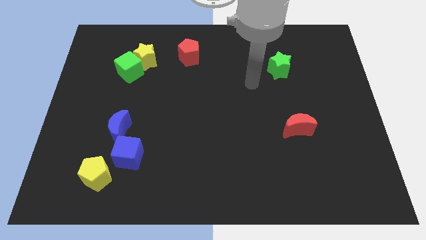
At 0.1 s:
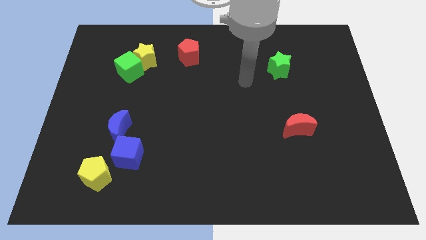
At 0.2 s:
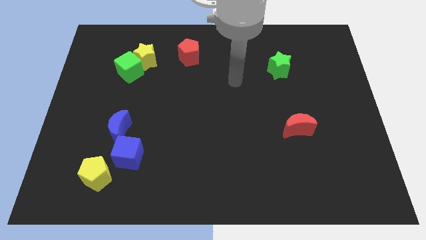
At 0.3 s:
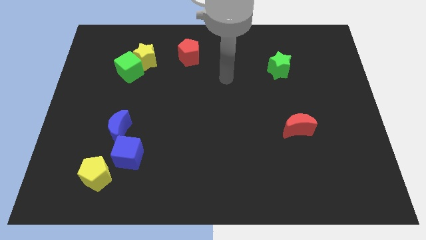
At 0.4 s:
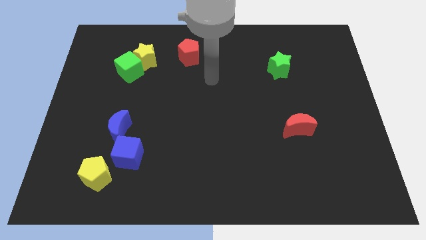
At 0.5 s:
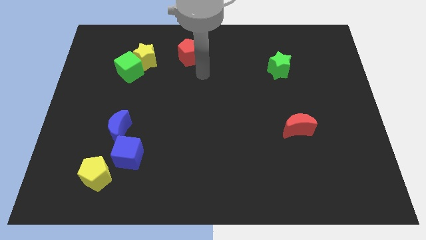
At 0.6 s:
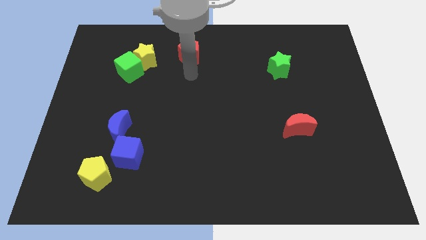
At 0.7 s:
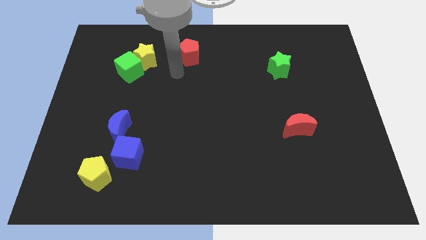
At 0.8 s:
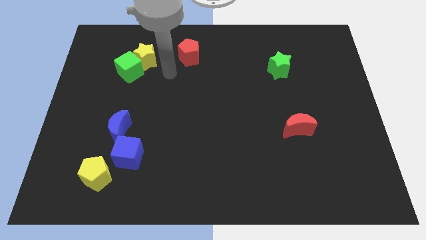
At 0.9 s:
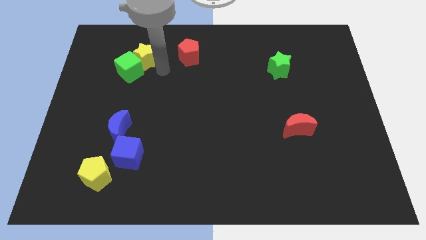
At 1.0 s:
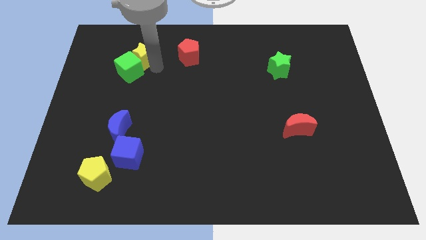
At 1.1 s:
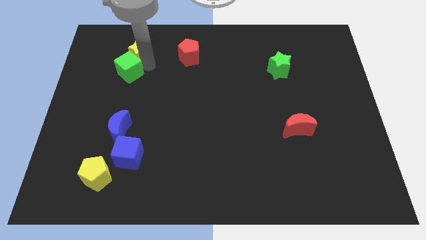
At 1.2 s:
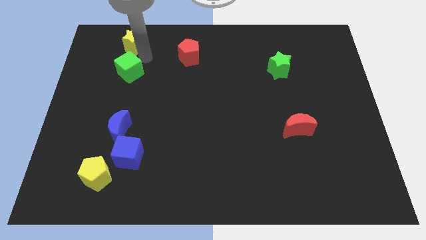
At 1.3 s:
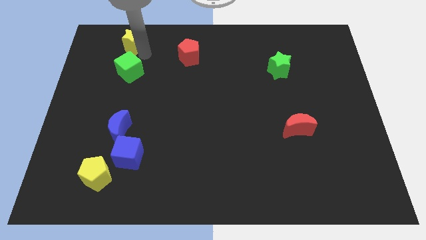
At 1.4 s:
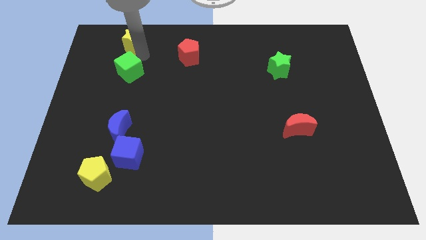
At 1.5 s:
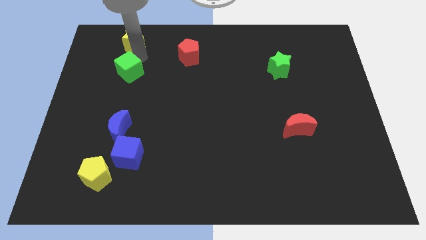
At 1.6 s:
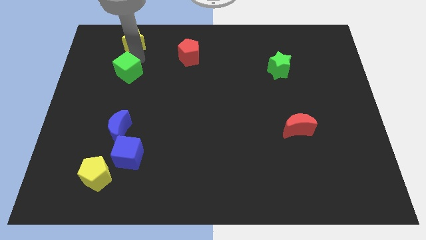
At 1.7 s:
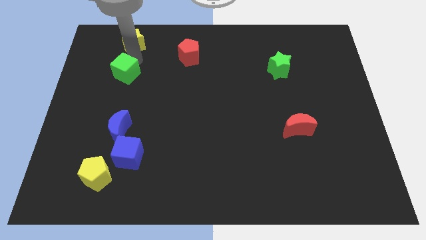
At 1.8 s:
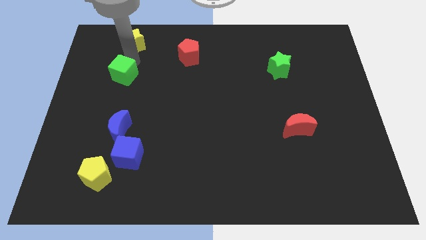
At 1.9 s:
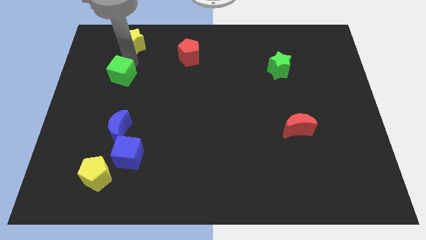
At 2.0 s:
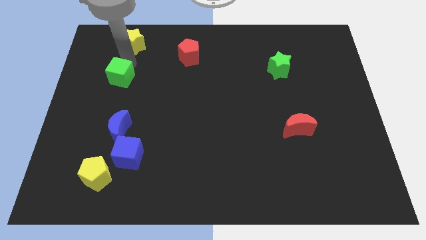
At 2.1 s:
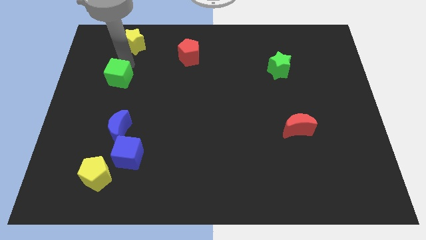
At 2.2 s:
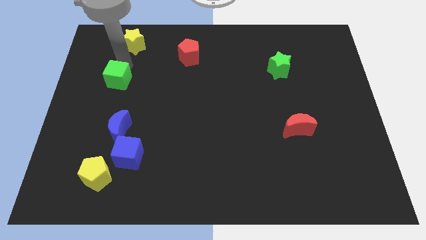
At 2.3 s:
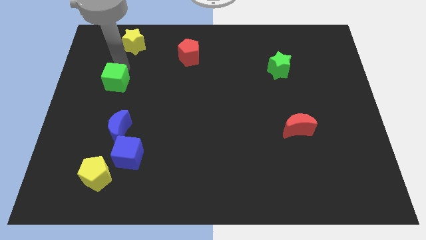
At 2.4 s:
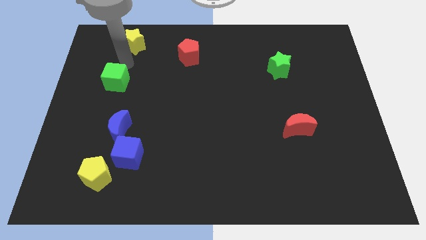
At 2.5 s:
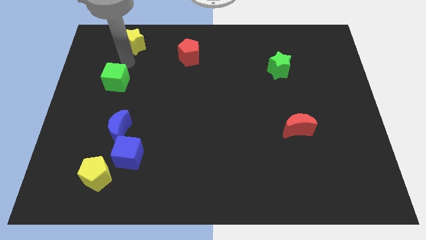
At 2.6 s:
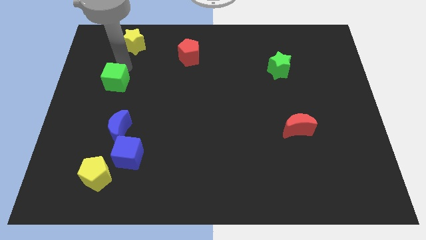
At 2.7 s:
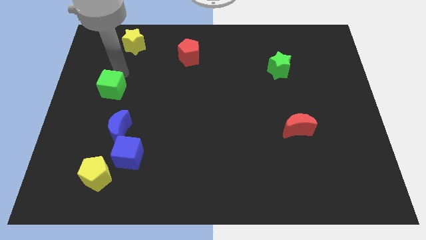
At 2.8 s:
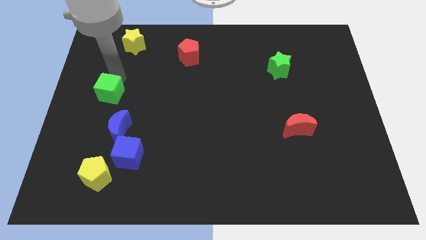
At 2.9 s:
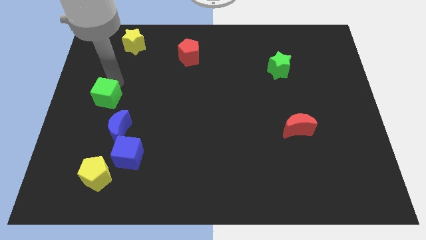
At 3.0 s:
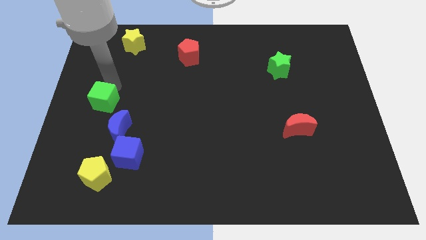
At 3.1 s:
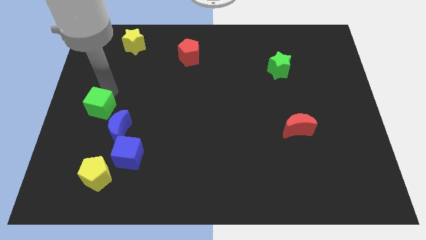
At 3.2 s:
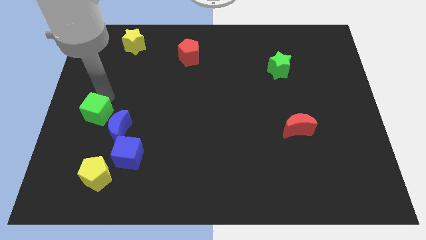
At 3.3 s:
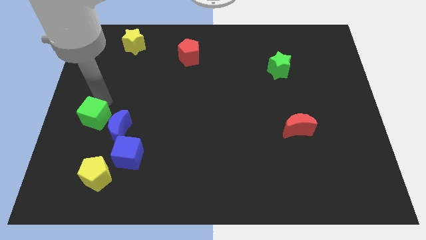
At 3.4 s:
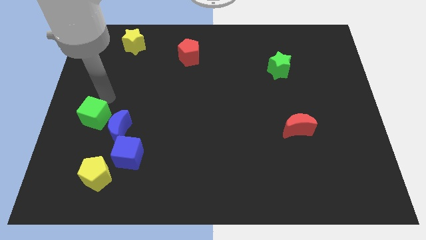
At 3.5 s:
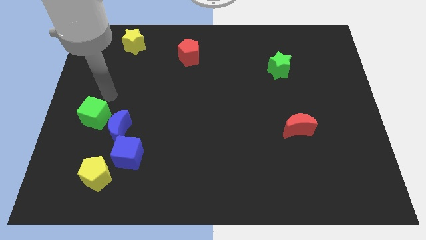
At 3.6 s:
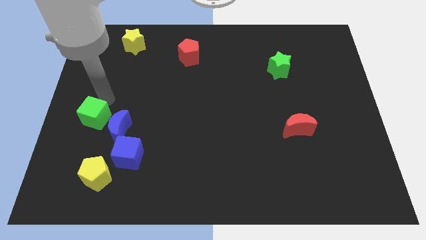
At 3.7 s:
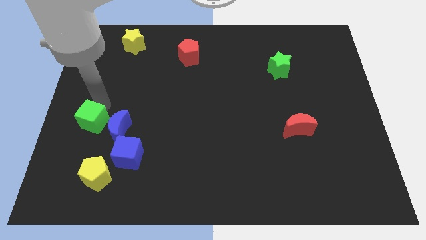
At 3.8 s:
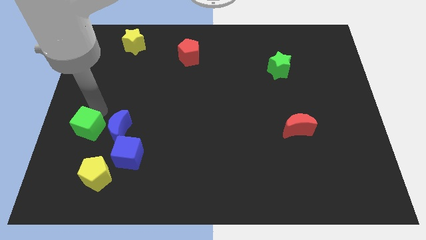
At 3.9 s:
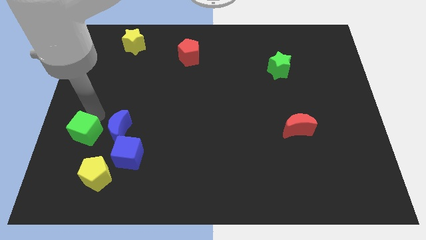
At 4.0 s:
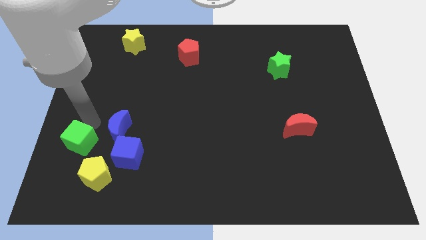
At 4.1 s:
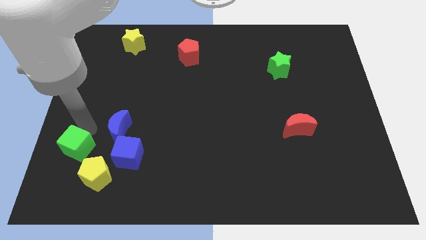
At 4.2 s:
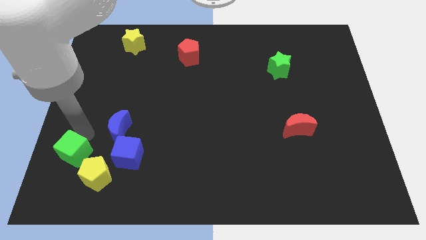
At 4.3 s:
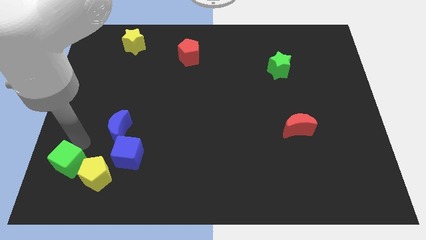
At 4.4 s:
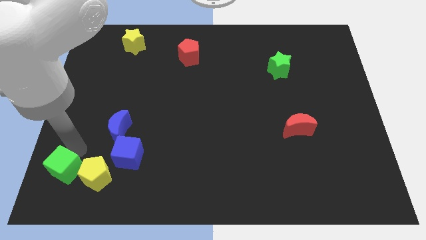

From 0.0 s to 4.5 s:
push the green cube to the bottom left

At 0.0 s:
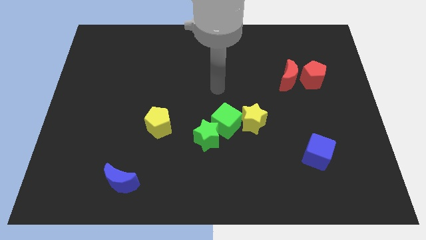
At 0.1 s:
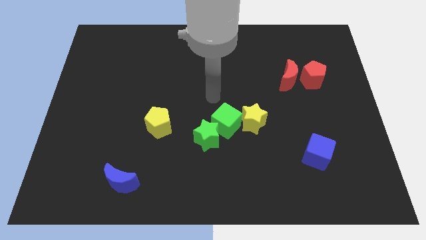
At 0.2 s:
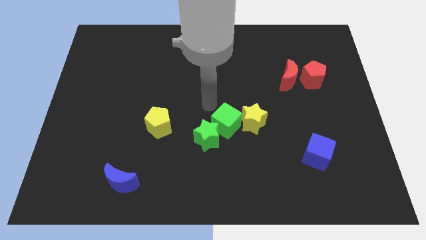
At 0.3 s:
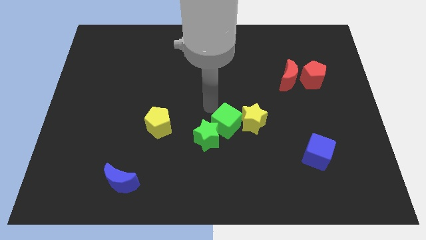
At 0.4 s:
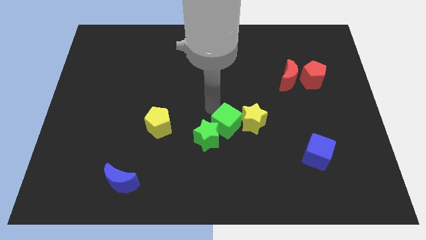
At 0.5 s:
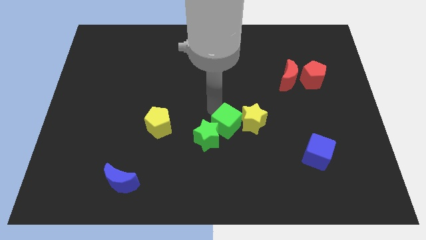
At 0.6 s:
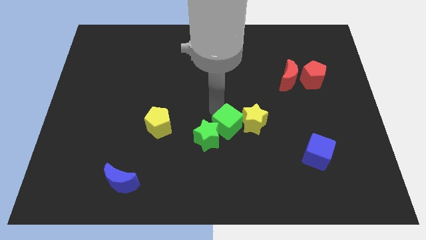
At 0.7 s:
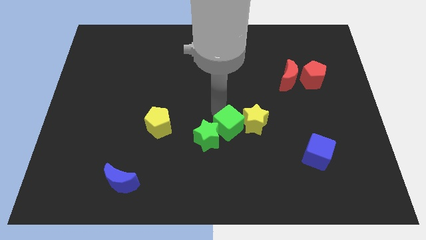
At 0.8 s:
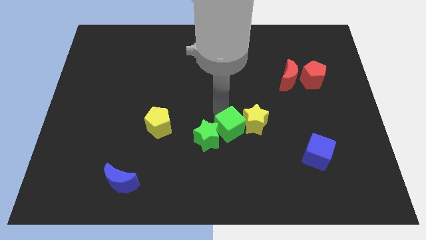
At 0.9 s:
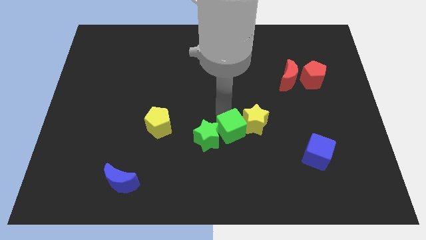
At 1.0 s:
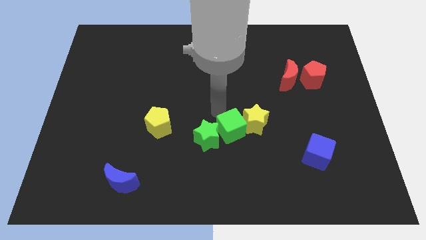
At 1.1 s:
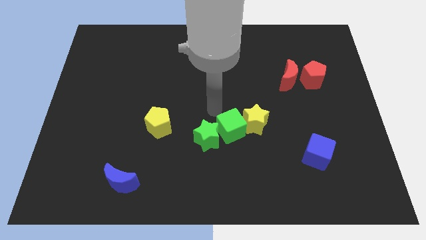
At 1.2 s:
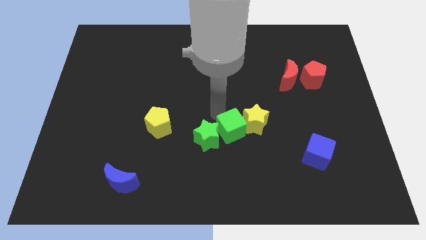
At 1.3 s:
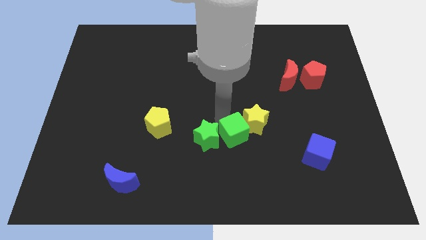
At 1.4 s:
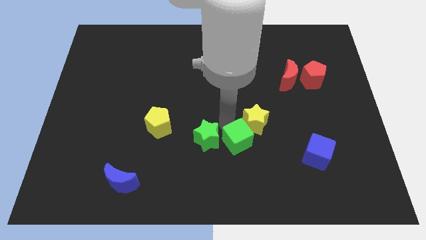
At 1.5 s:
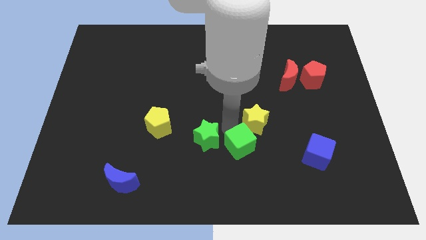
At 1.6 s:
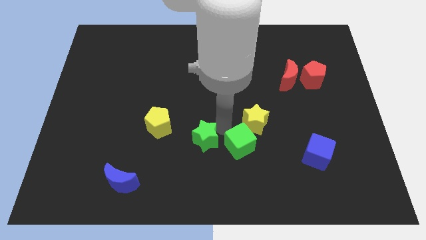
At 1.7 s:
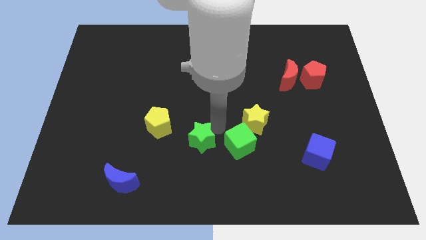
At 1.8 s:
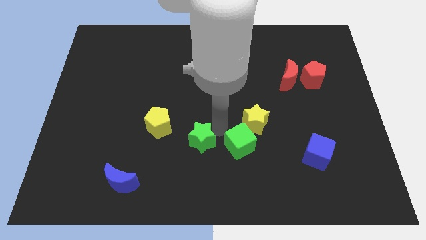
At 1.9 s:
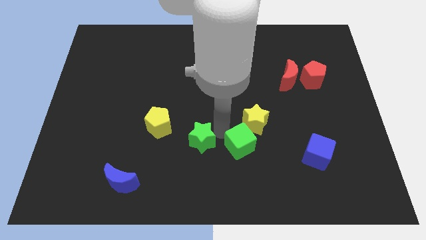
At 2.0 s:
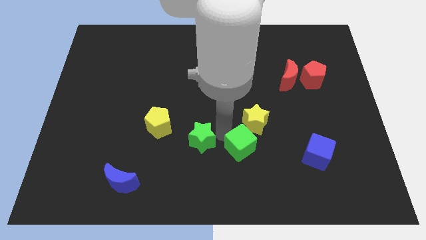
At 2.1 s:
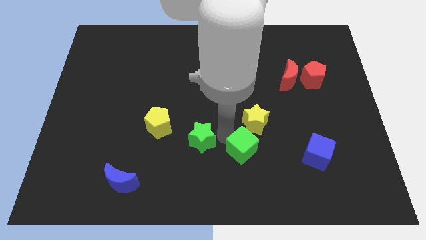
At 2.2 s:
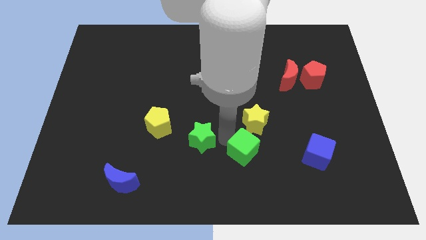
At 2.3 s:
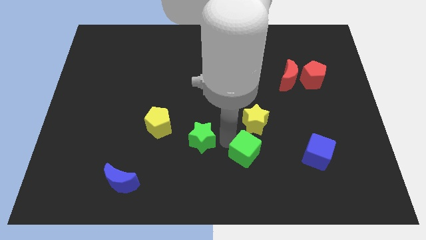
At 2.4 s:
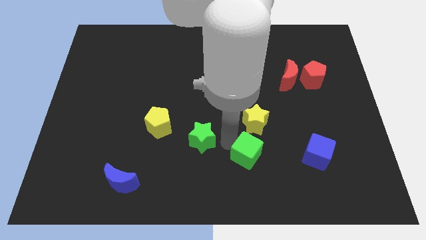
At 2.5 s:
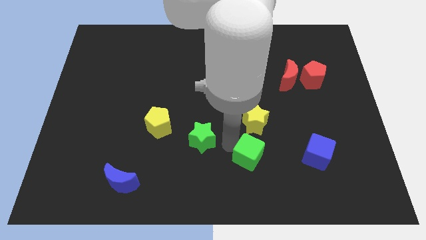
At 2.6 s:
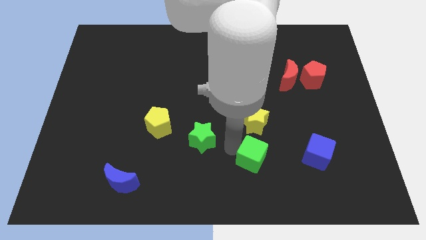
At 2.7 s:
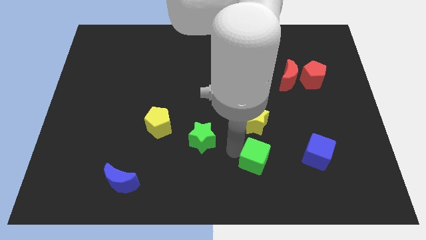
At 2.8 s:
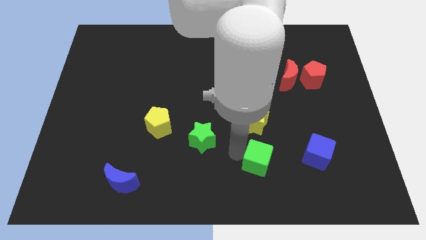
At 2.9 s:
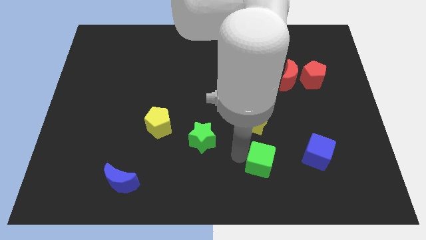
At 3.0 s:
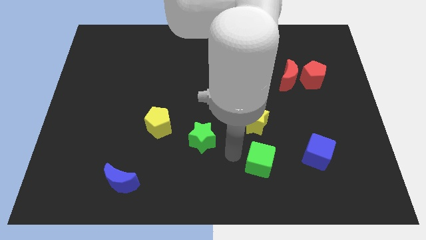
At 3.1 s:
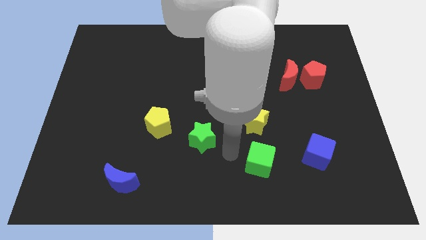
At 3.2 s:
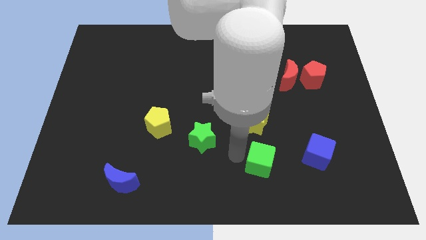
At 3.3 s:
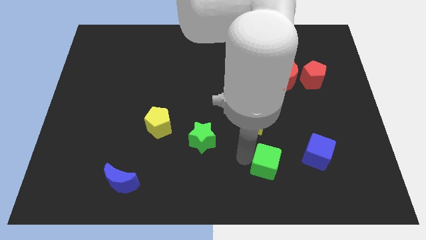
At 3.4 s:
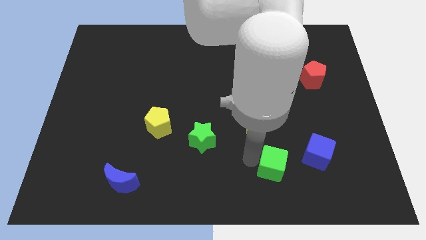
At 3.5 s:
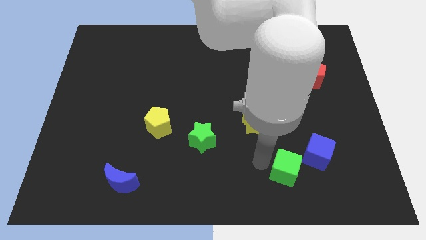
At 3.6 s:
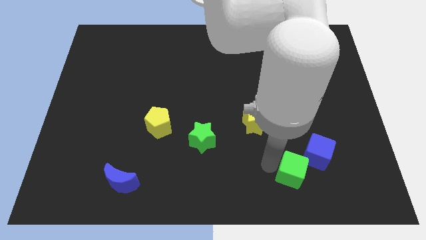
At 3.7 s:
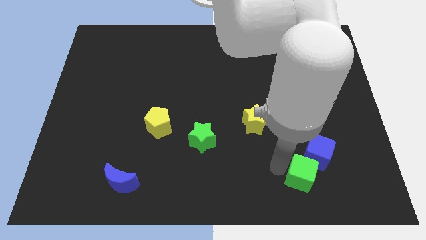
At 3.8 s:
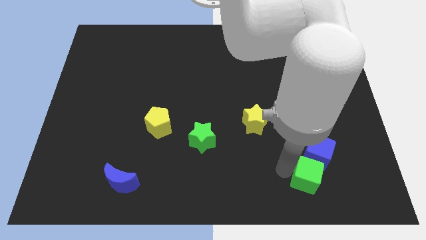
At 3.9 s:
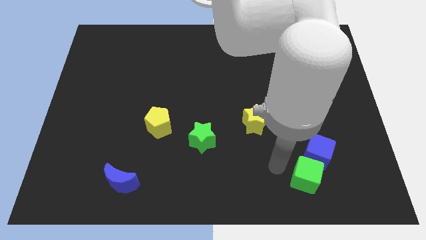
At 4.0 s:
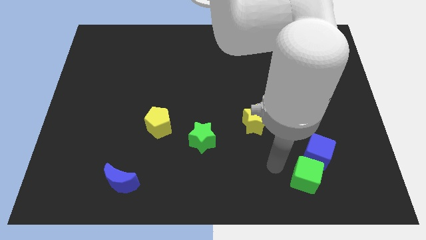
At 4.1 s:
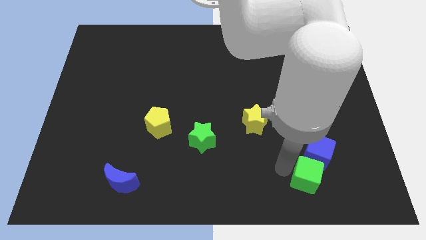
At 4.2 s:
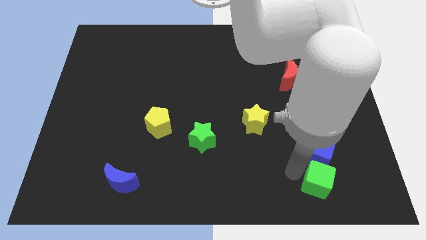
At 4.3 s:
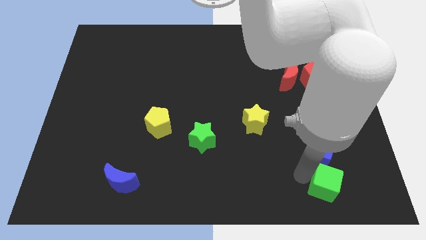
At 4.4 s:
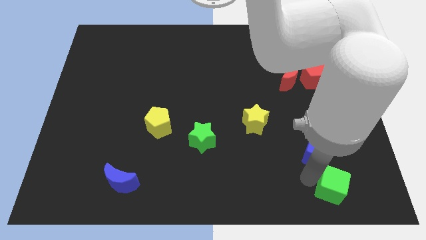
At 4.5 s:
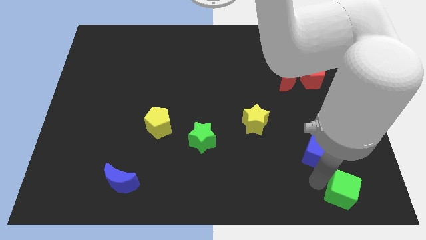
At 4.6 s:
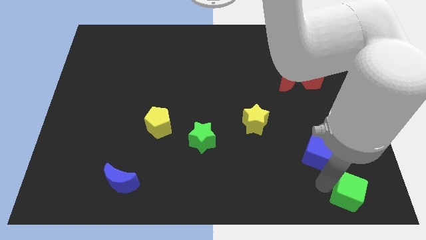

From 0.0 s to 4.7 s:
put the green cube to the bottom right corner
